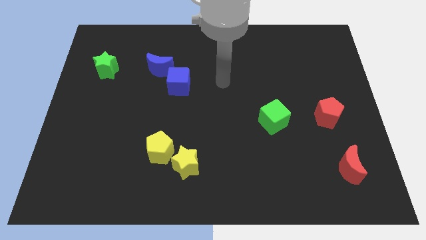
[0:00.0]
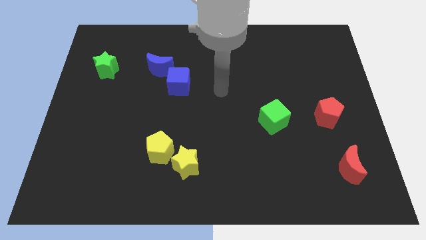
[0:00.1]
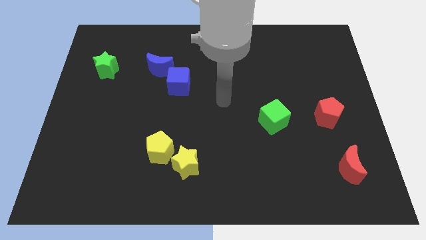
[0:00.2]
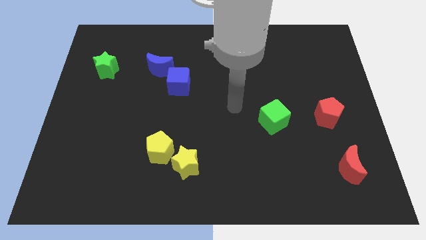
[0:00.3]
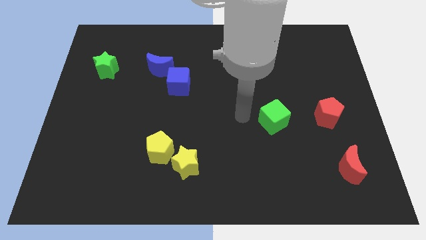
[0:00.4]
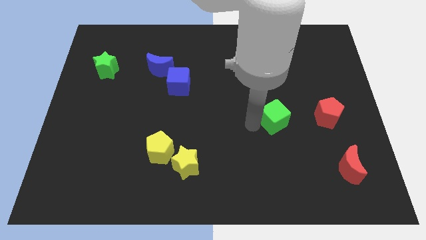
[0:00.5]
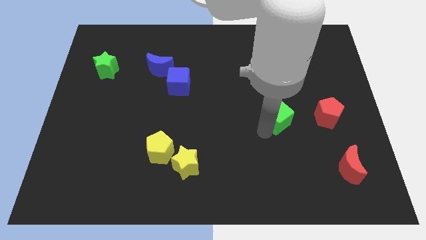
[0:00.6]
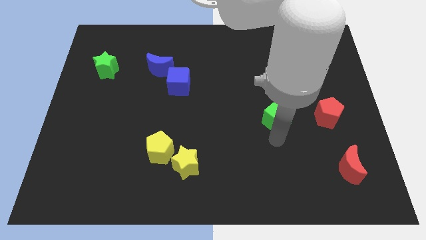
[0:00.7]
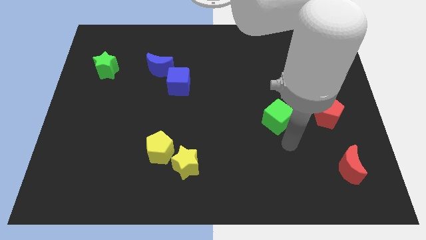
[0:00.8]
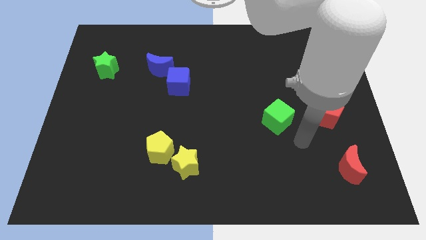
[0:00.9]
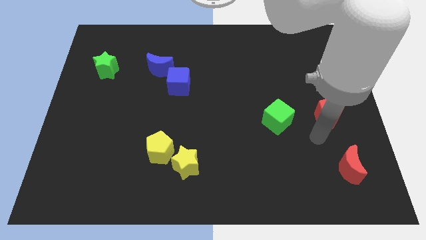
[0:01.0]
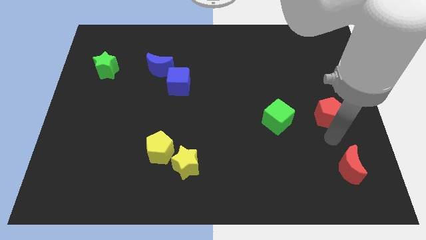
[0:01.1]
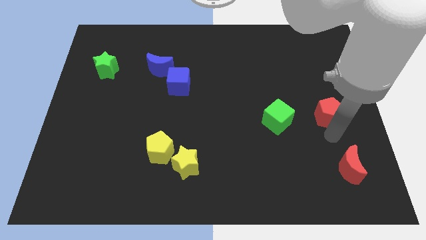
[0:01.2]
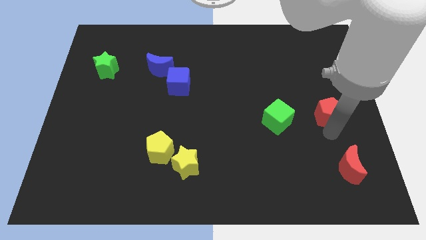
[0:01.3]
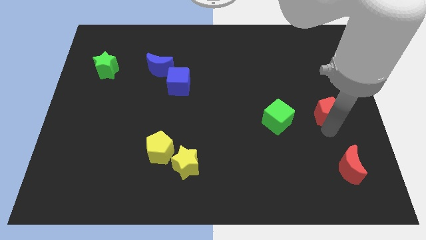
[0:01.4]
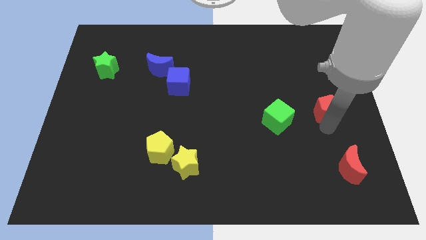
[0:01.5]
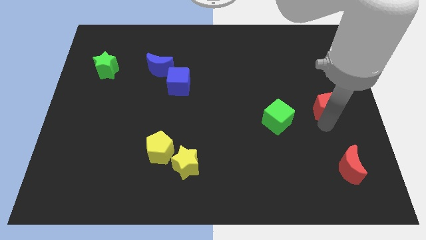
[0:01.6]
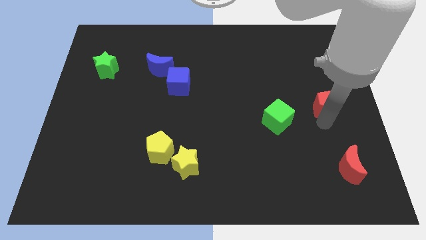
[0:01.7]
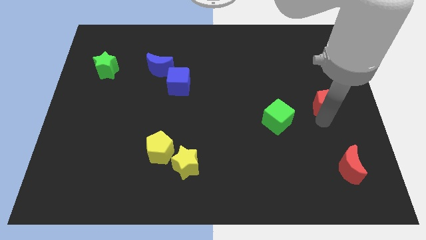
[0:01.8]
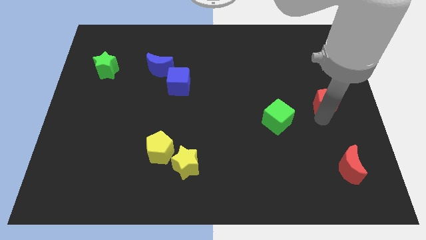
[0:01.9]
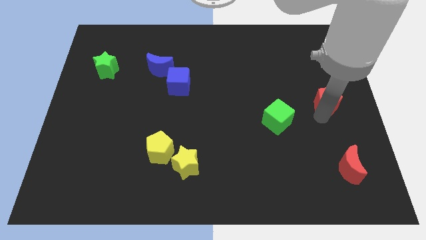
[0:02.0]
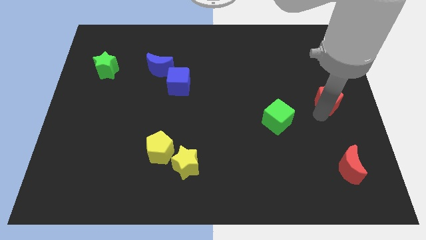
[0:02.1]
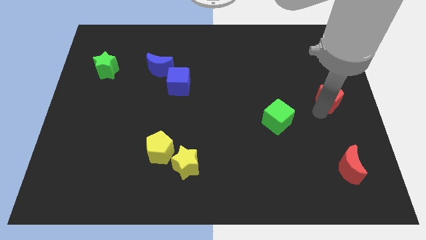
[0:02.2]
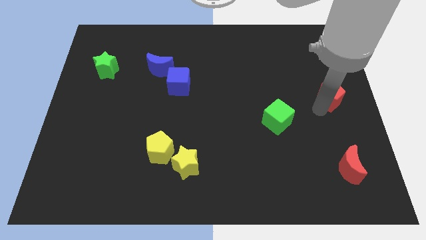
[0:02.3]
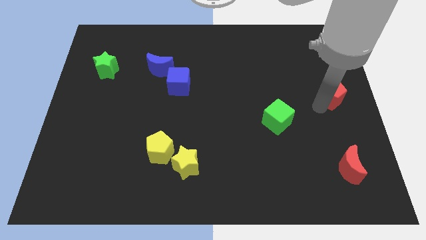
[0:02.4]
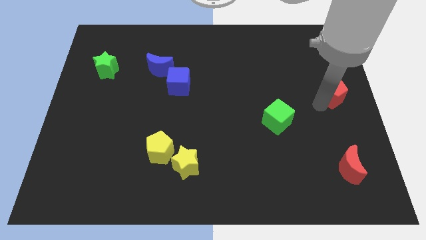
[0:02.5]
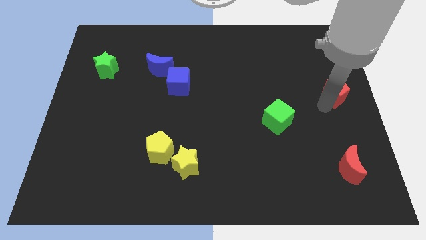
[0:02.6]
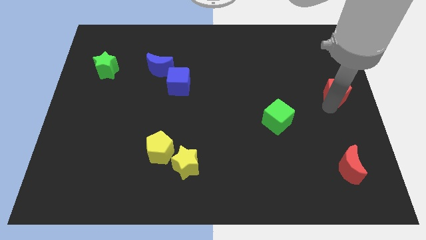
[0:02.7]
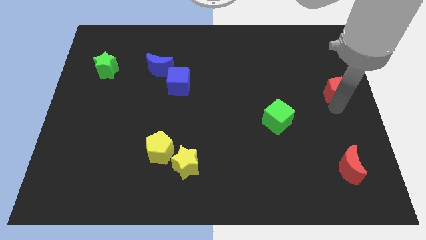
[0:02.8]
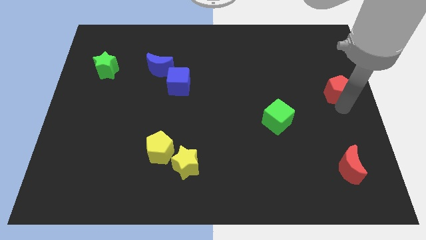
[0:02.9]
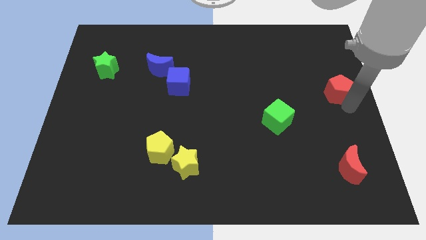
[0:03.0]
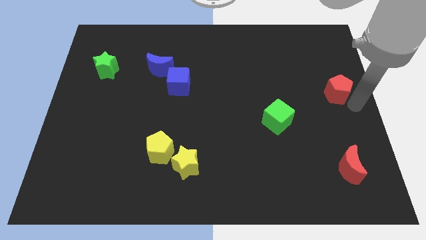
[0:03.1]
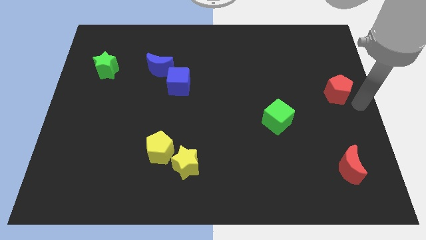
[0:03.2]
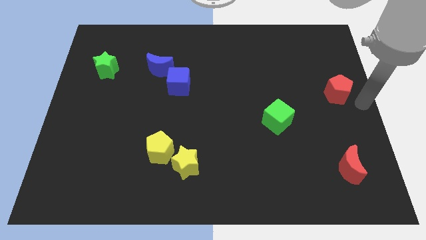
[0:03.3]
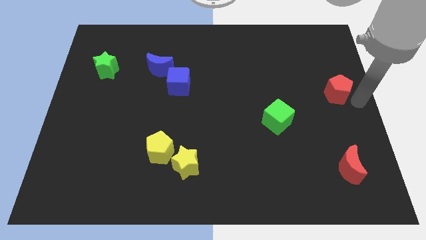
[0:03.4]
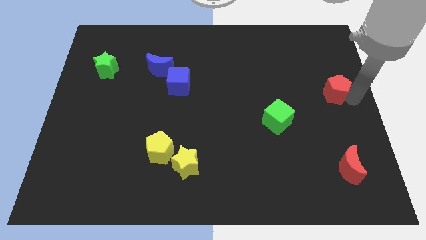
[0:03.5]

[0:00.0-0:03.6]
push the red pentagon up a bit

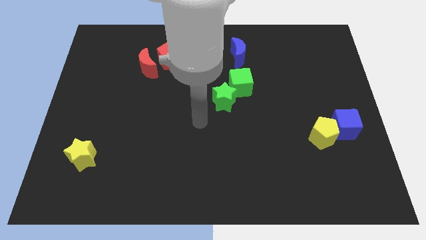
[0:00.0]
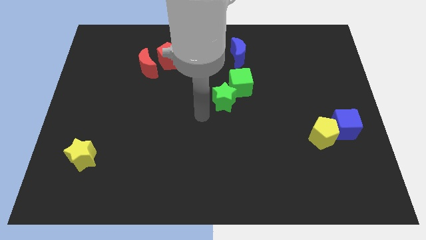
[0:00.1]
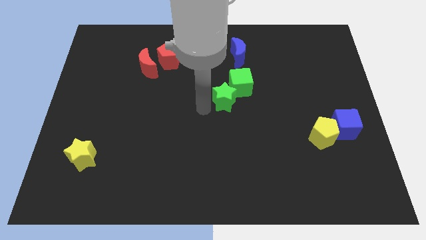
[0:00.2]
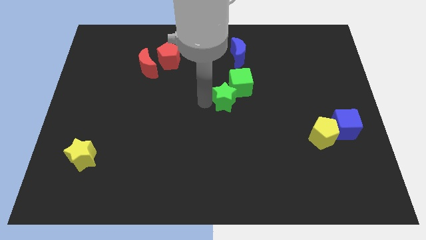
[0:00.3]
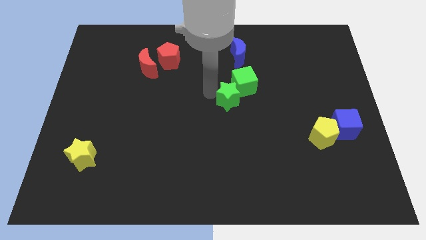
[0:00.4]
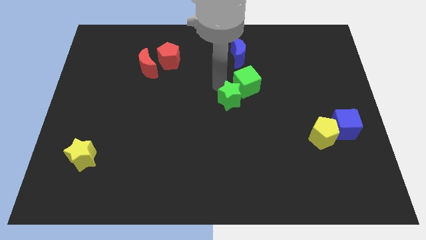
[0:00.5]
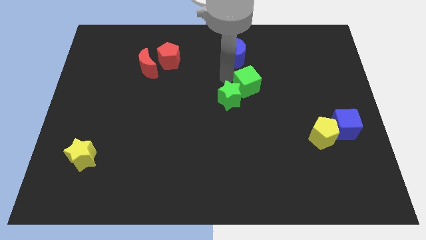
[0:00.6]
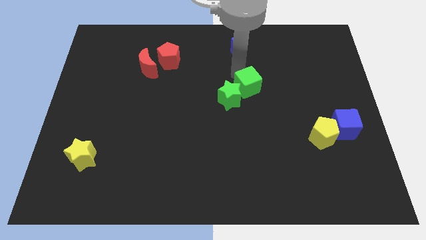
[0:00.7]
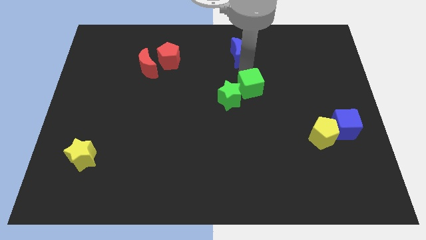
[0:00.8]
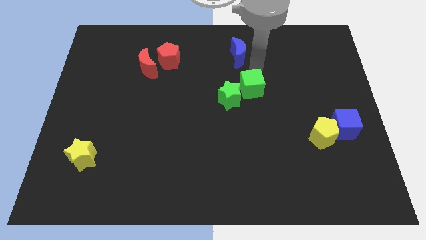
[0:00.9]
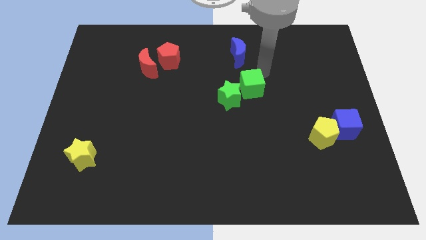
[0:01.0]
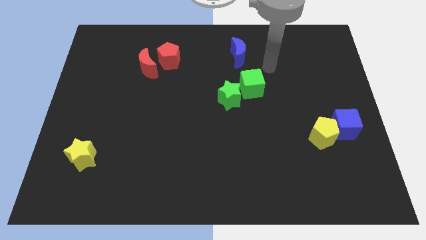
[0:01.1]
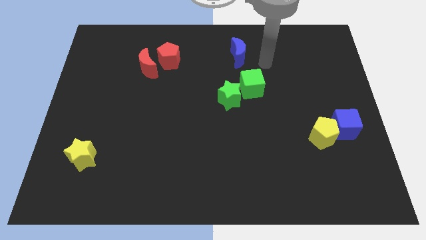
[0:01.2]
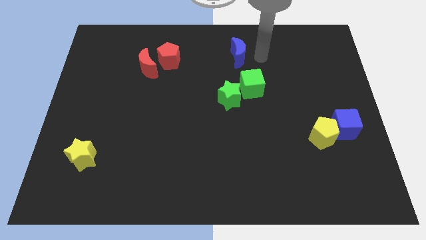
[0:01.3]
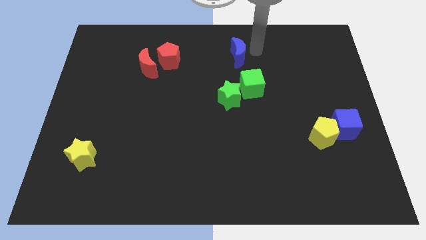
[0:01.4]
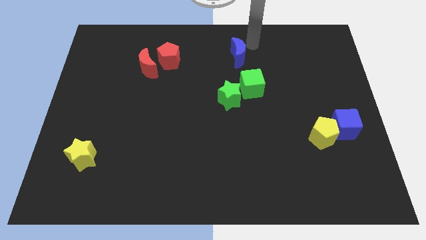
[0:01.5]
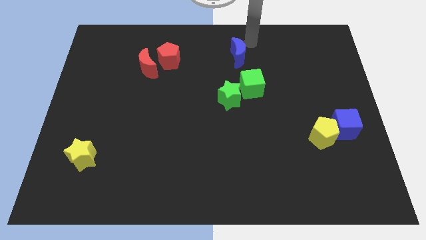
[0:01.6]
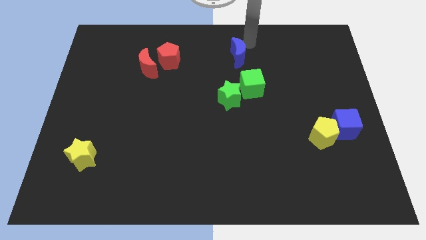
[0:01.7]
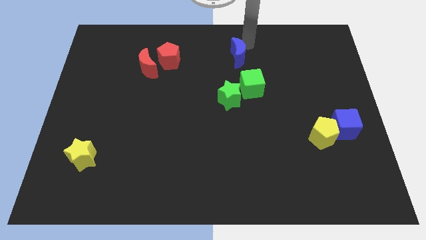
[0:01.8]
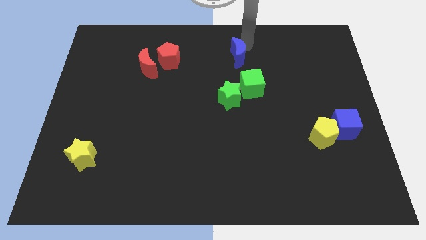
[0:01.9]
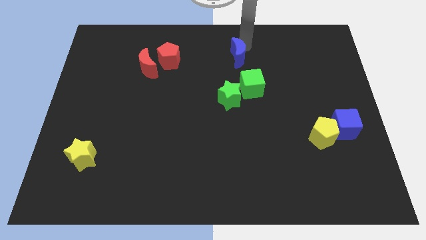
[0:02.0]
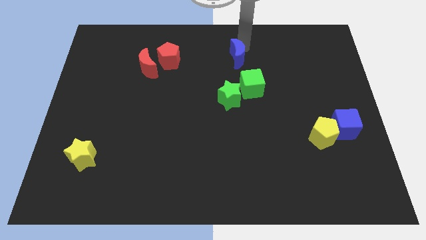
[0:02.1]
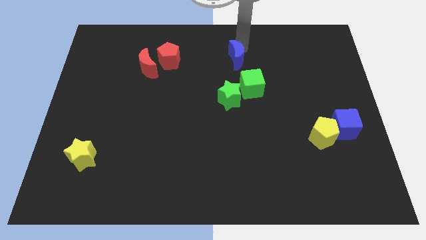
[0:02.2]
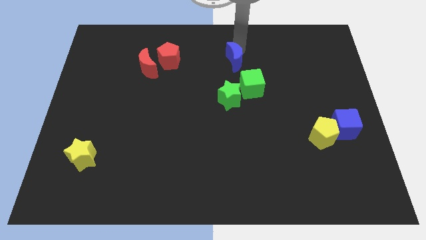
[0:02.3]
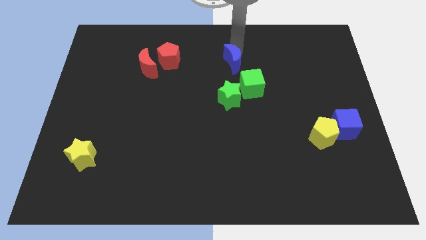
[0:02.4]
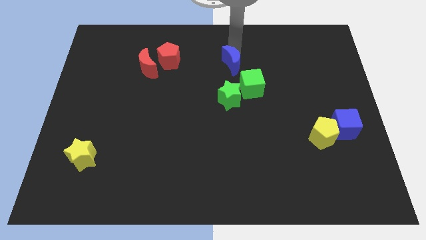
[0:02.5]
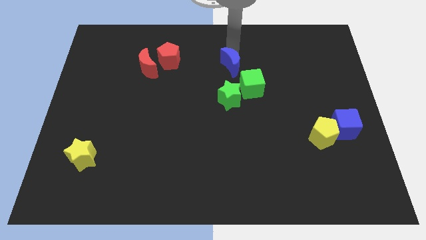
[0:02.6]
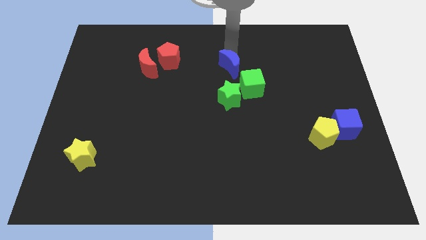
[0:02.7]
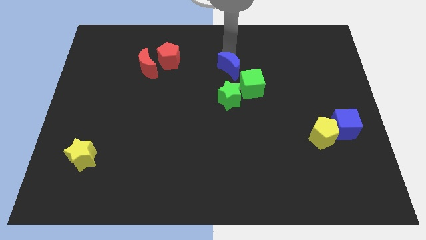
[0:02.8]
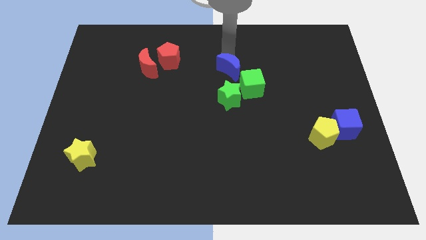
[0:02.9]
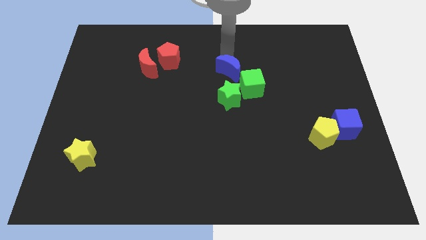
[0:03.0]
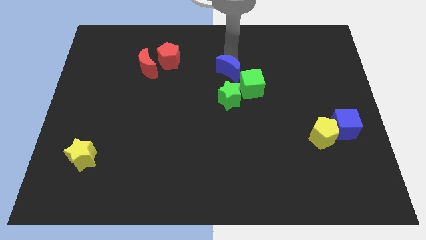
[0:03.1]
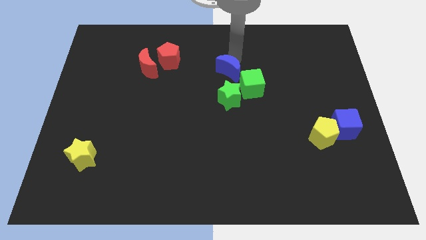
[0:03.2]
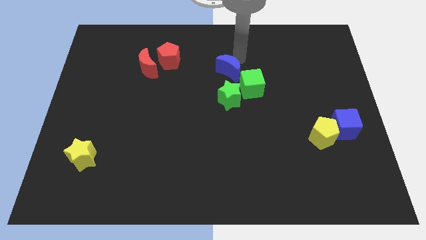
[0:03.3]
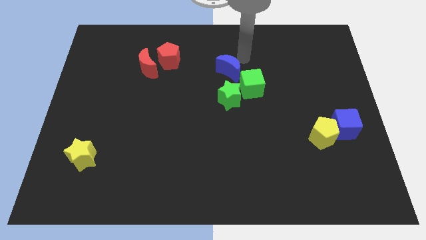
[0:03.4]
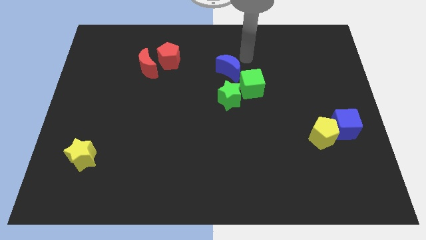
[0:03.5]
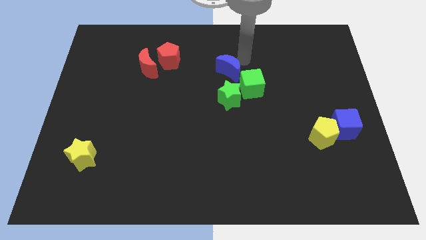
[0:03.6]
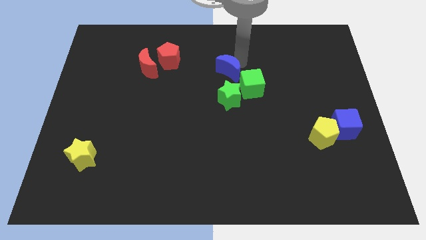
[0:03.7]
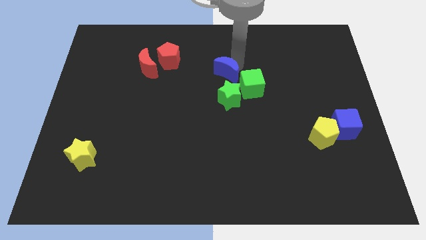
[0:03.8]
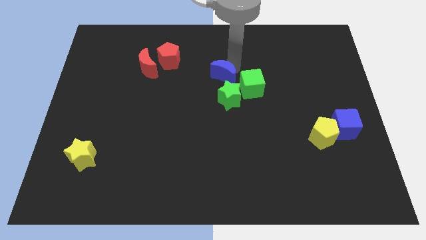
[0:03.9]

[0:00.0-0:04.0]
move the blue moon a little downwards and left diagonally

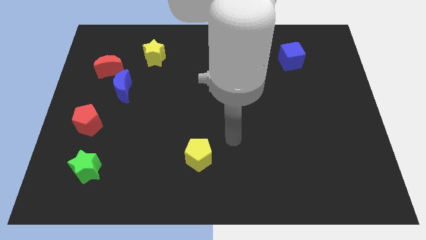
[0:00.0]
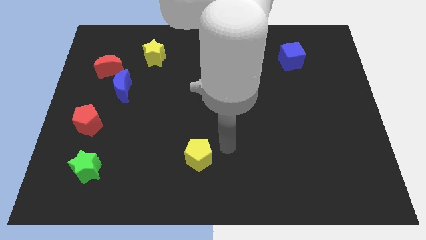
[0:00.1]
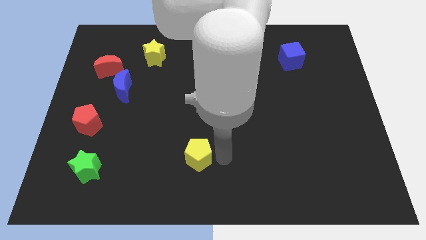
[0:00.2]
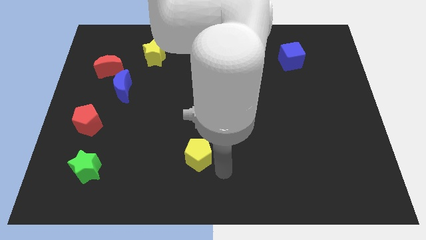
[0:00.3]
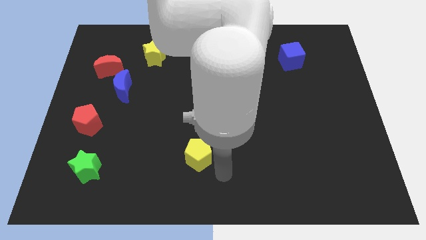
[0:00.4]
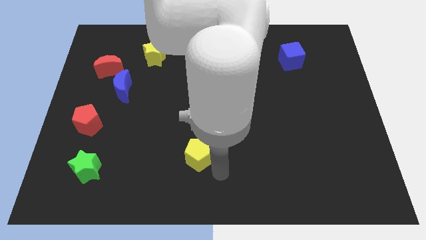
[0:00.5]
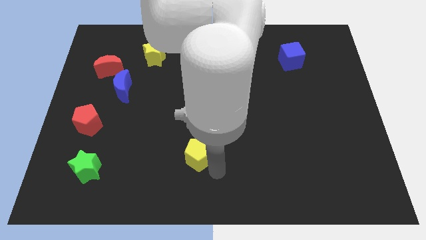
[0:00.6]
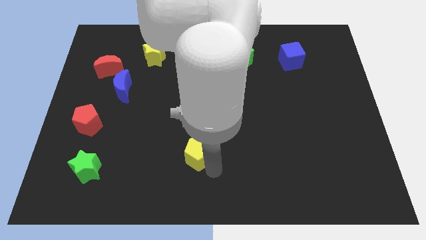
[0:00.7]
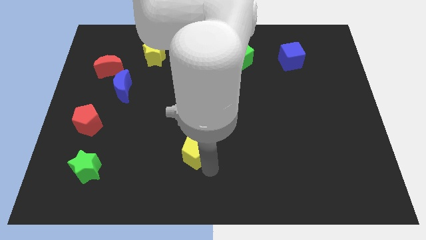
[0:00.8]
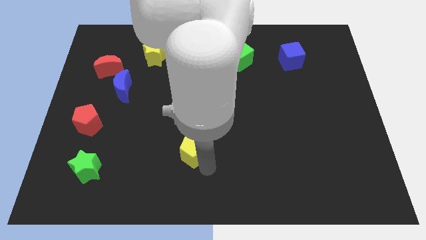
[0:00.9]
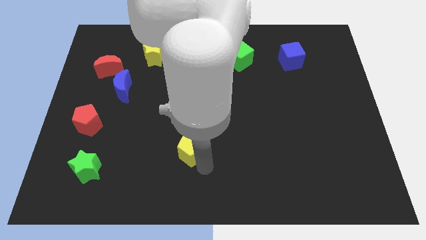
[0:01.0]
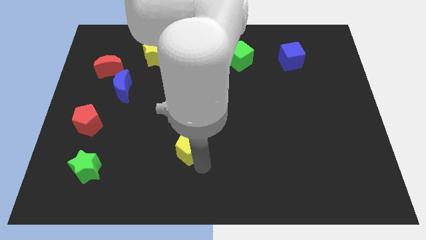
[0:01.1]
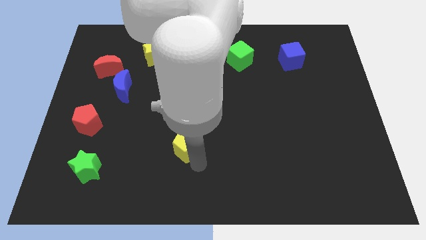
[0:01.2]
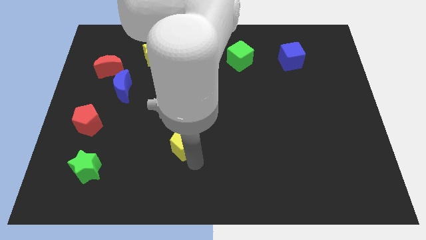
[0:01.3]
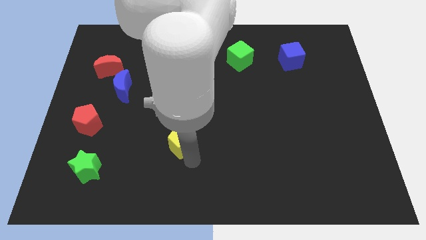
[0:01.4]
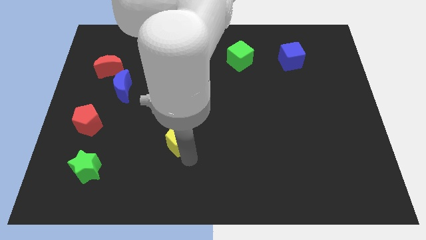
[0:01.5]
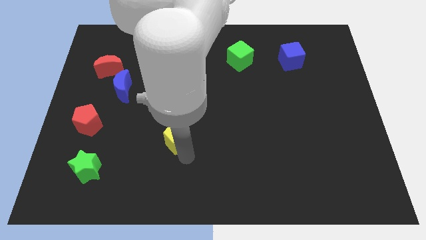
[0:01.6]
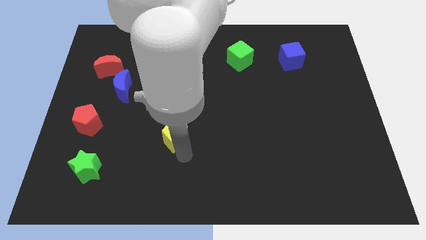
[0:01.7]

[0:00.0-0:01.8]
push the yellow pentagon upwards and then to the left a little bit
